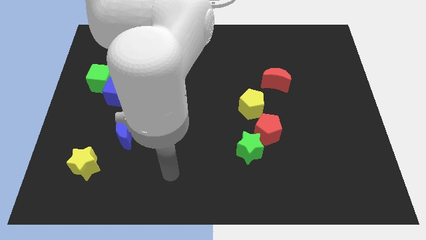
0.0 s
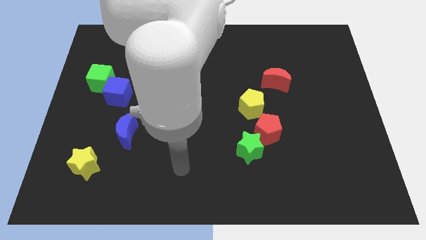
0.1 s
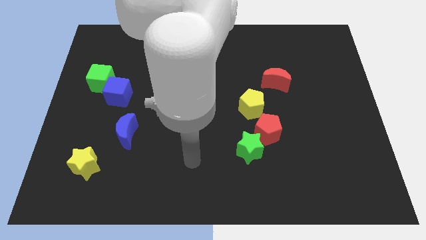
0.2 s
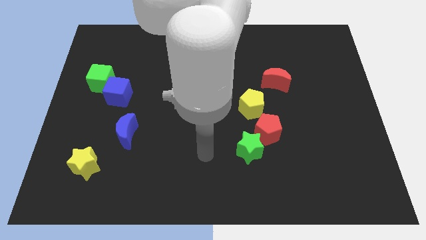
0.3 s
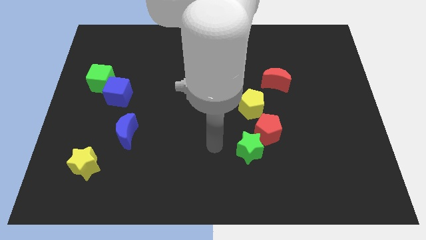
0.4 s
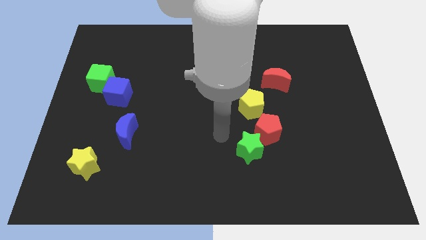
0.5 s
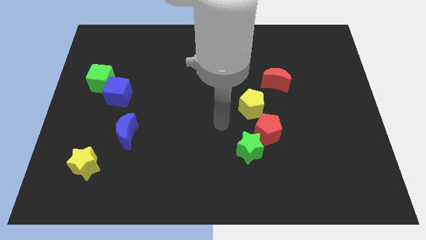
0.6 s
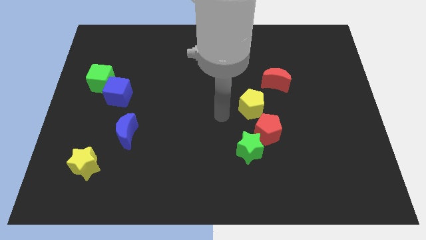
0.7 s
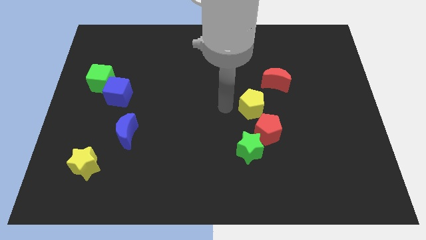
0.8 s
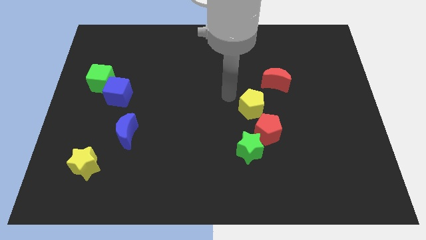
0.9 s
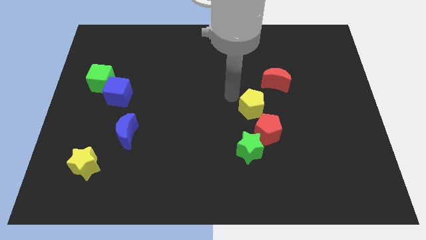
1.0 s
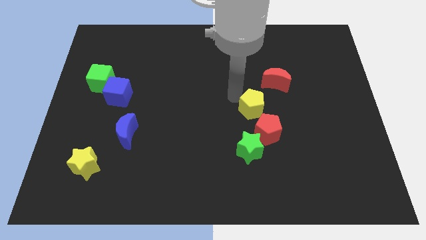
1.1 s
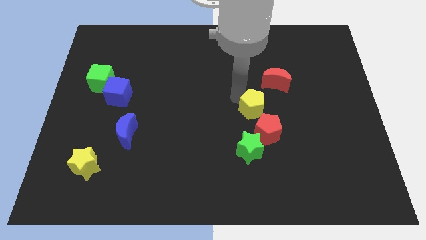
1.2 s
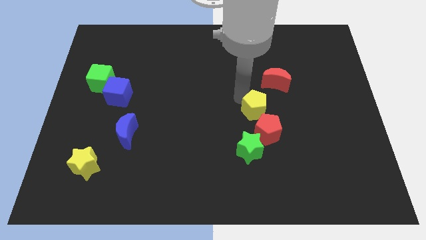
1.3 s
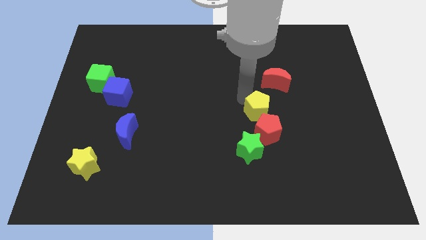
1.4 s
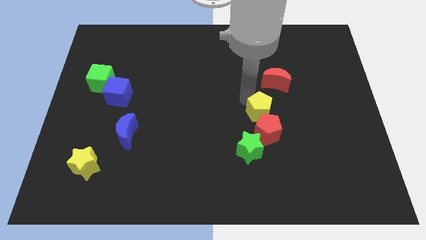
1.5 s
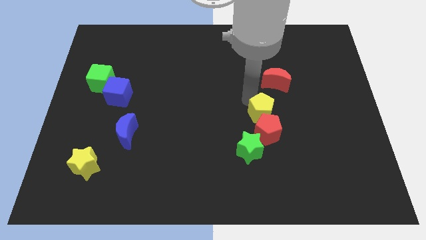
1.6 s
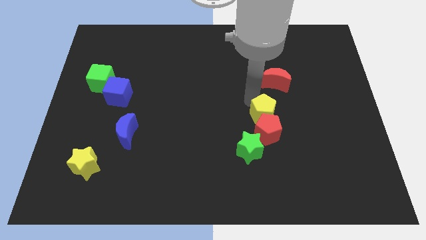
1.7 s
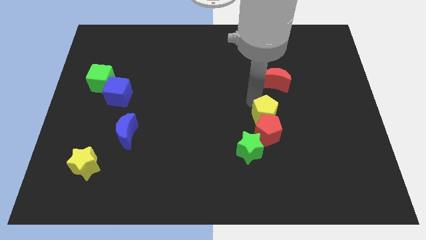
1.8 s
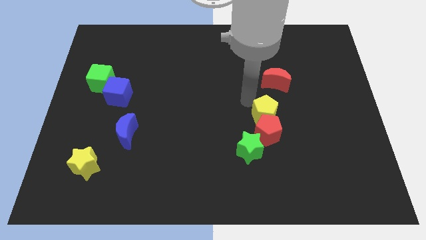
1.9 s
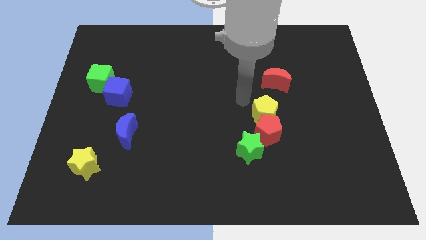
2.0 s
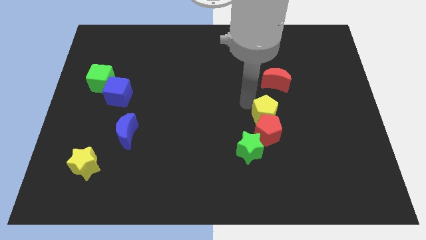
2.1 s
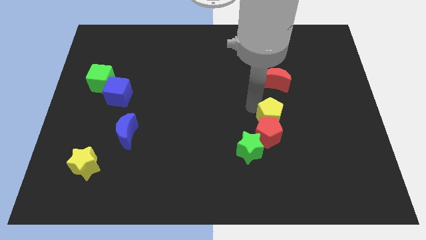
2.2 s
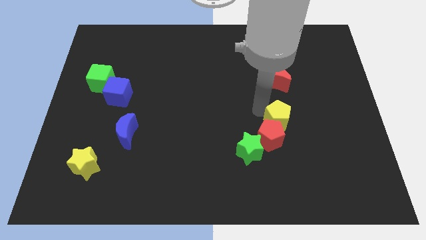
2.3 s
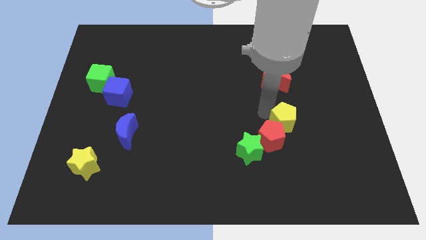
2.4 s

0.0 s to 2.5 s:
slide the yellow pentagon a little bit down and to the right

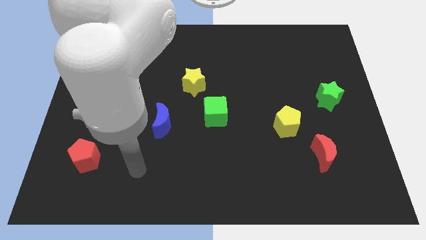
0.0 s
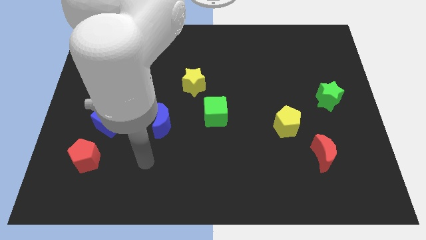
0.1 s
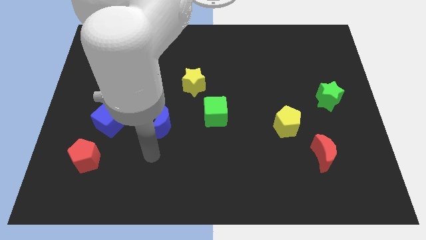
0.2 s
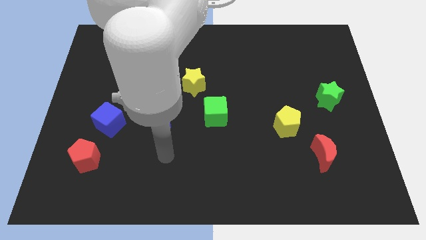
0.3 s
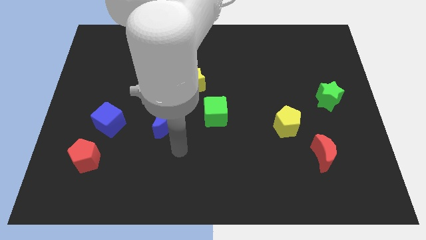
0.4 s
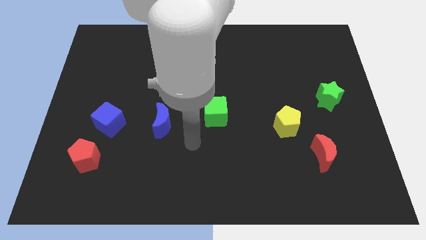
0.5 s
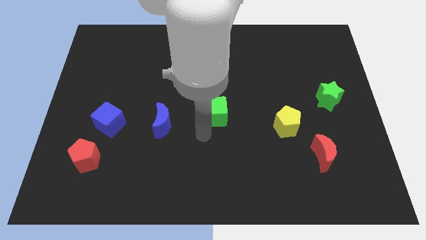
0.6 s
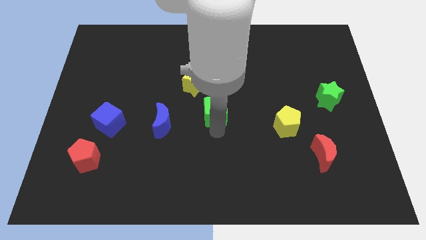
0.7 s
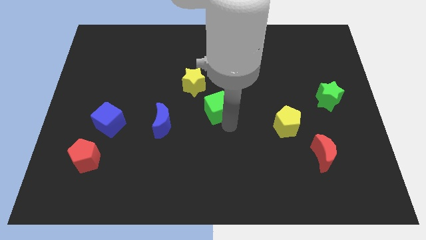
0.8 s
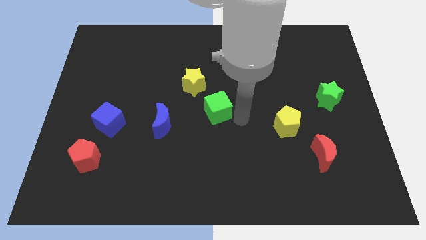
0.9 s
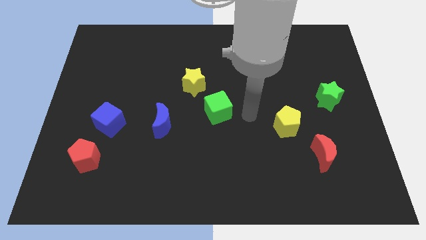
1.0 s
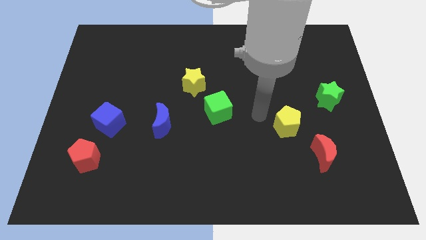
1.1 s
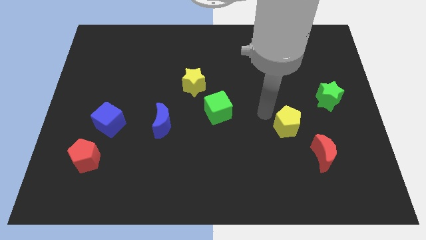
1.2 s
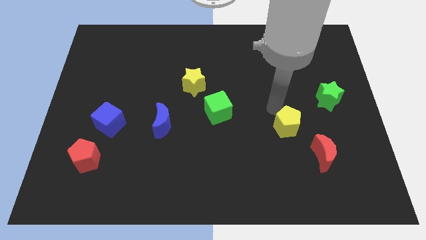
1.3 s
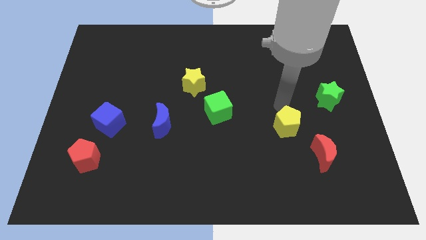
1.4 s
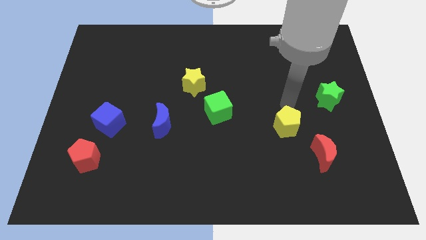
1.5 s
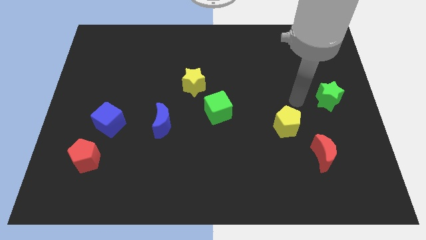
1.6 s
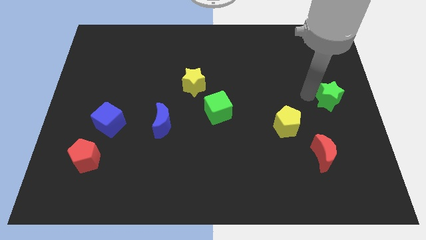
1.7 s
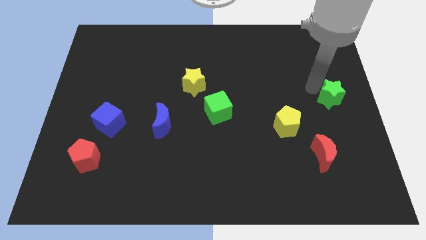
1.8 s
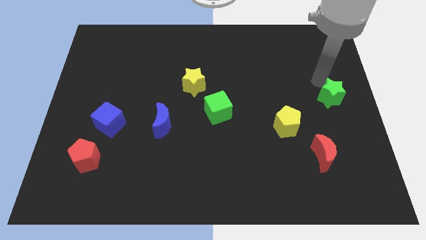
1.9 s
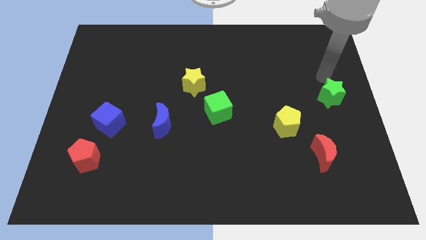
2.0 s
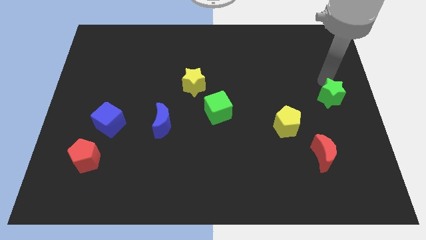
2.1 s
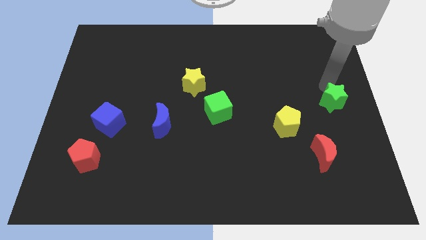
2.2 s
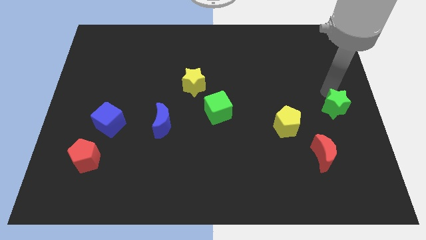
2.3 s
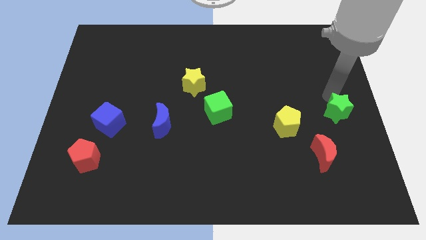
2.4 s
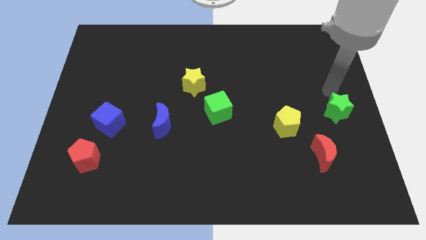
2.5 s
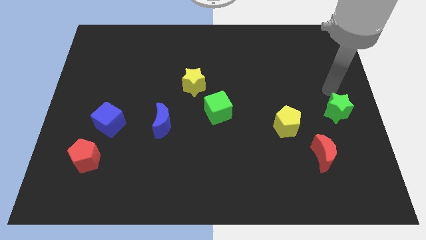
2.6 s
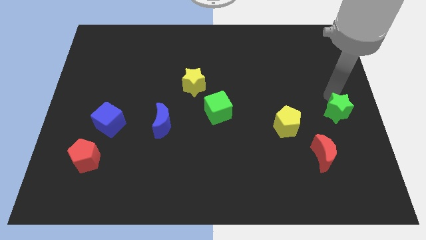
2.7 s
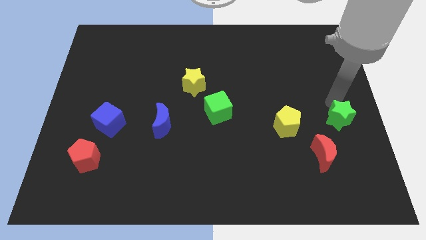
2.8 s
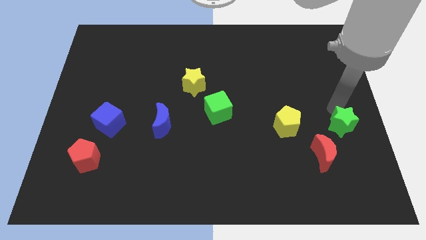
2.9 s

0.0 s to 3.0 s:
slightly push the green star downwards

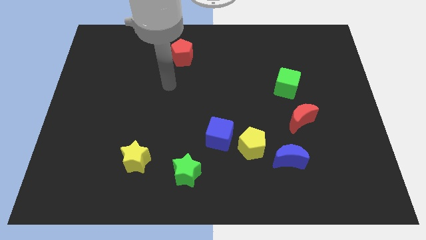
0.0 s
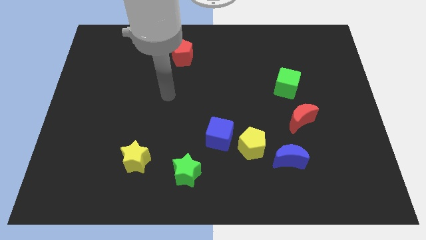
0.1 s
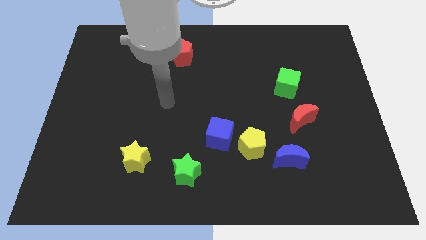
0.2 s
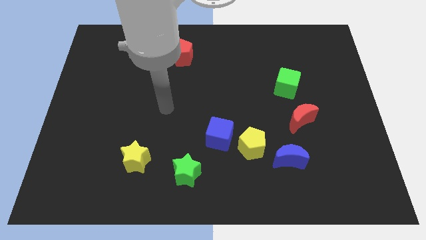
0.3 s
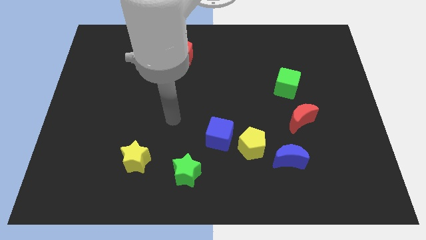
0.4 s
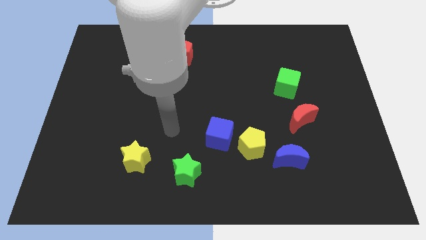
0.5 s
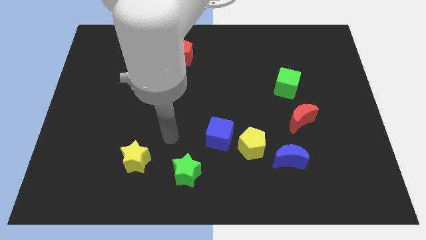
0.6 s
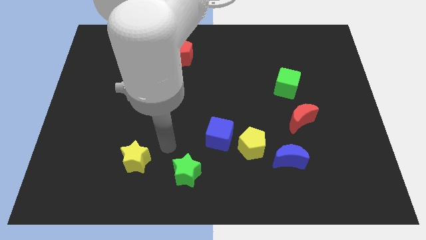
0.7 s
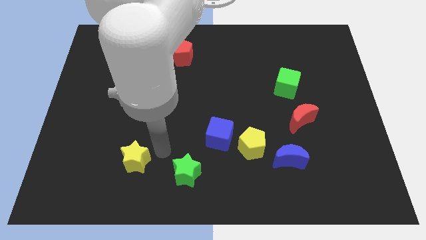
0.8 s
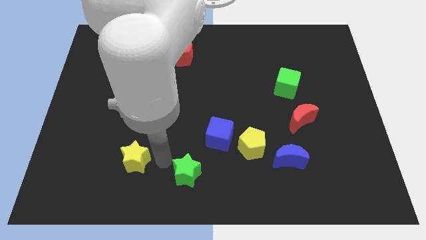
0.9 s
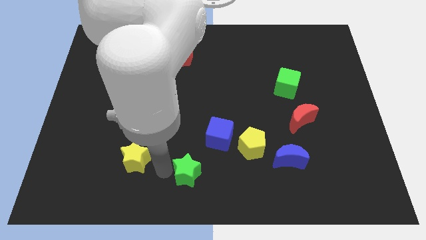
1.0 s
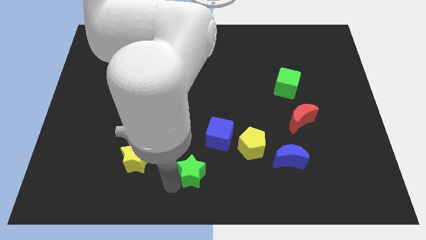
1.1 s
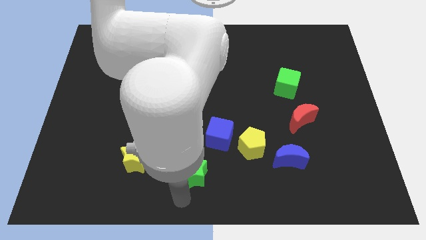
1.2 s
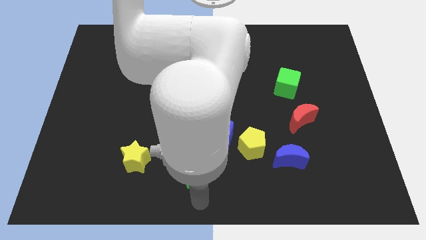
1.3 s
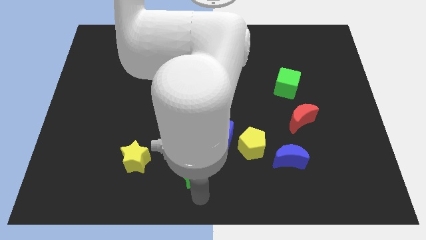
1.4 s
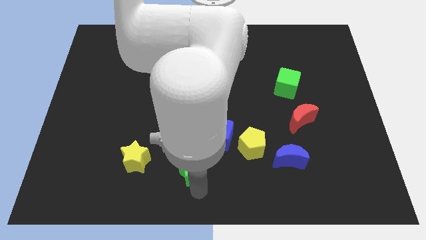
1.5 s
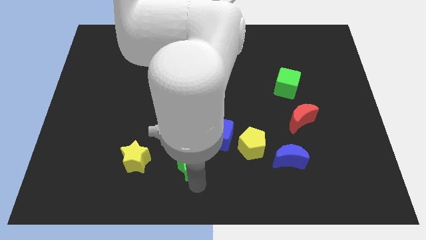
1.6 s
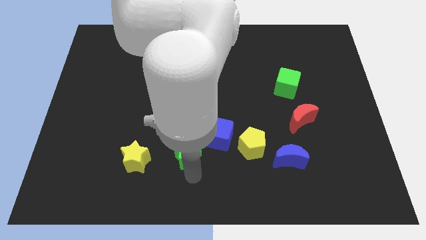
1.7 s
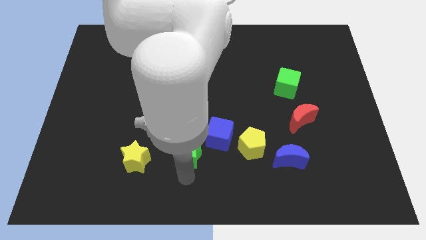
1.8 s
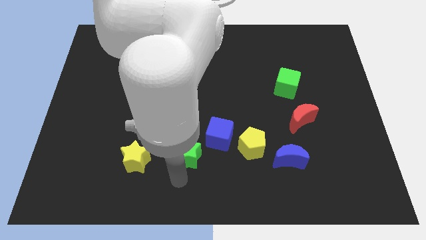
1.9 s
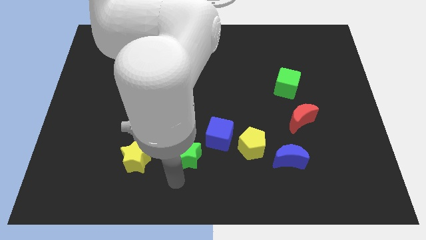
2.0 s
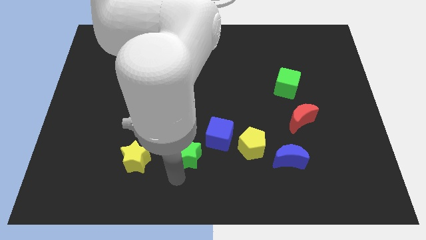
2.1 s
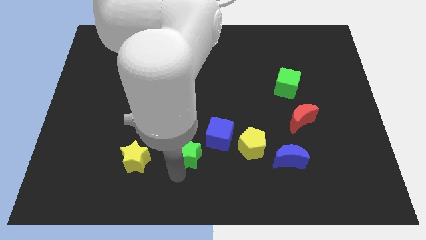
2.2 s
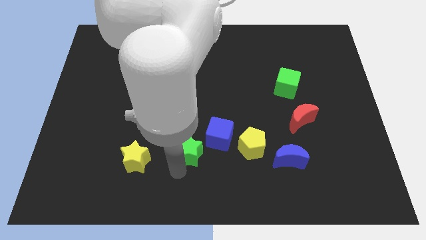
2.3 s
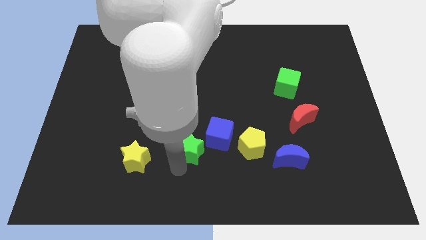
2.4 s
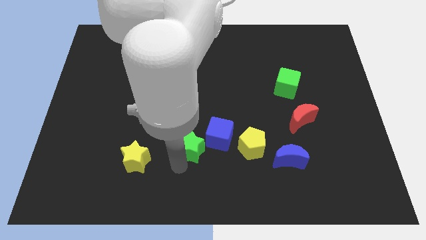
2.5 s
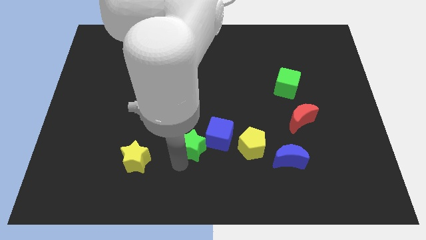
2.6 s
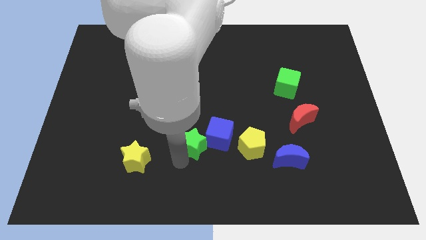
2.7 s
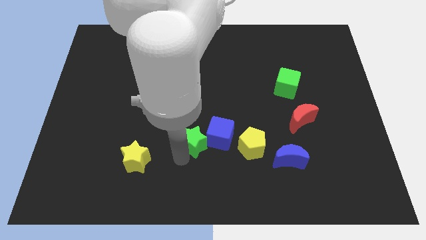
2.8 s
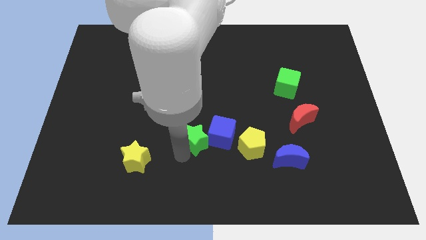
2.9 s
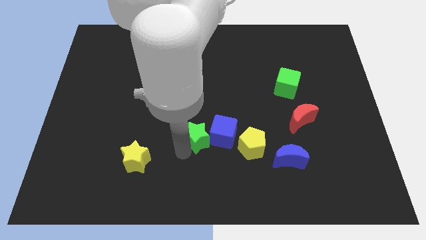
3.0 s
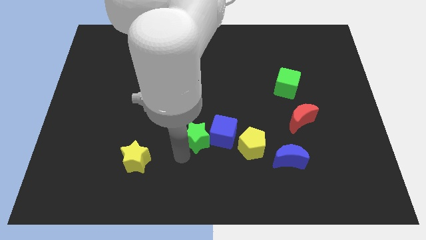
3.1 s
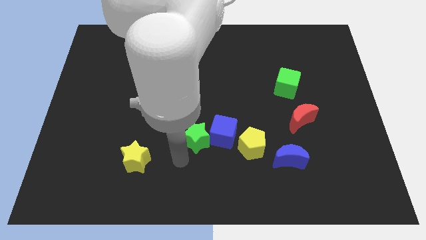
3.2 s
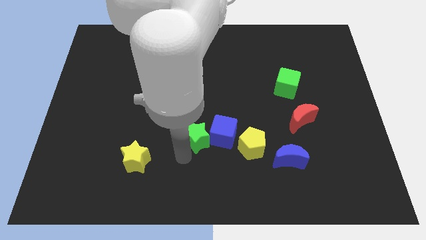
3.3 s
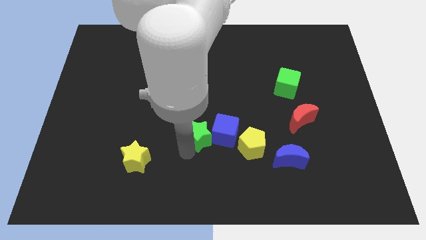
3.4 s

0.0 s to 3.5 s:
slightly move the green star upwards and then to the right
